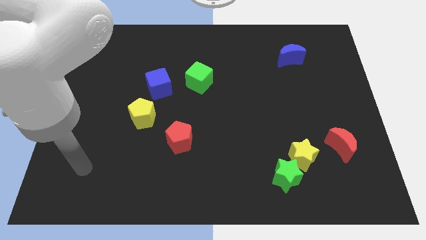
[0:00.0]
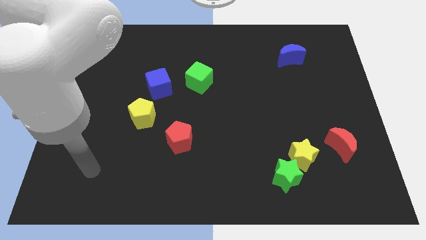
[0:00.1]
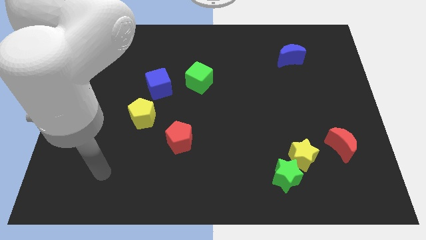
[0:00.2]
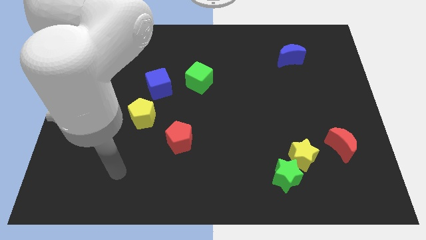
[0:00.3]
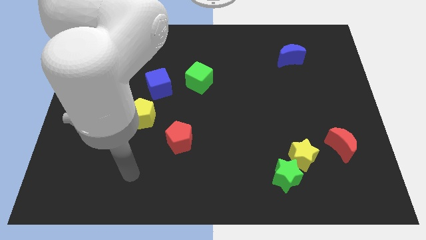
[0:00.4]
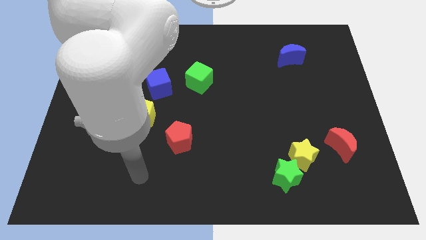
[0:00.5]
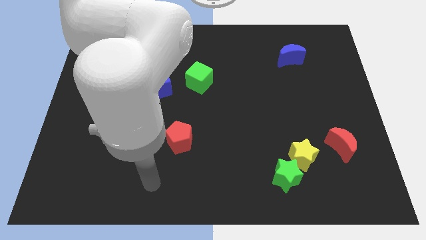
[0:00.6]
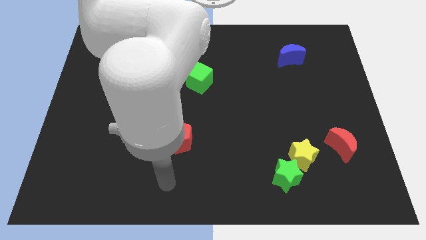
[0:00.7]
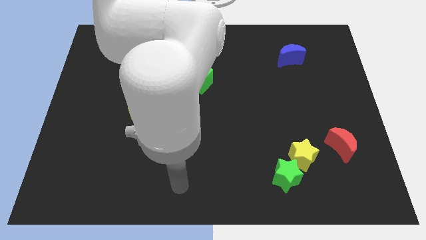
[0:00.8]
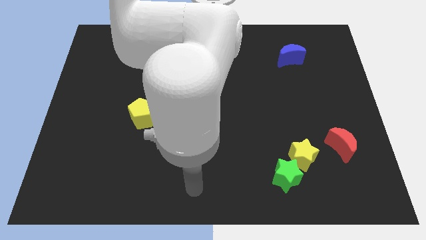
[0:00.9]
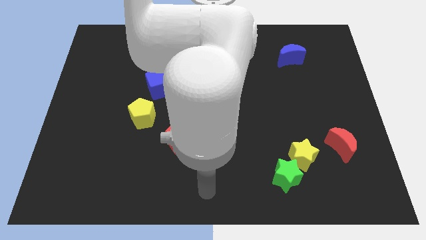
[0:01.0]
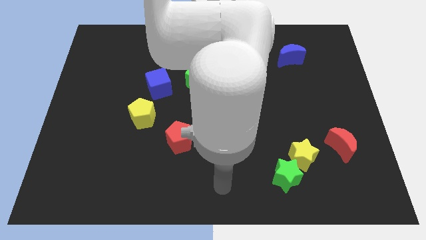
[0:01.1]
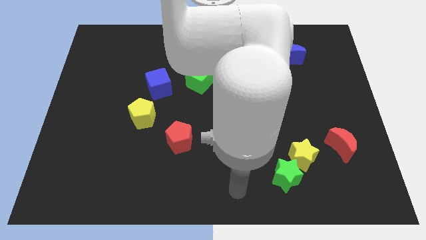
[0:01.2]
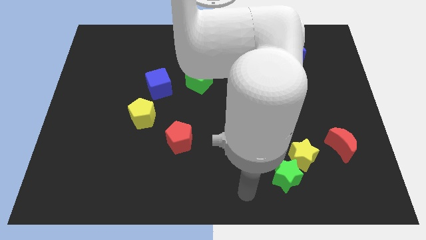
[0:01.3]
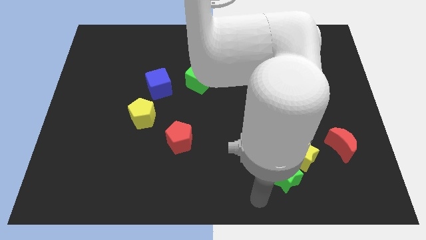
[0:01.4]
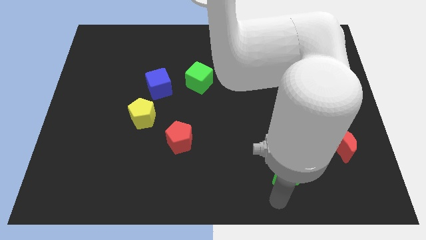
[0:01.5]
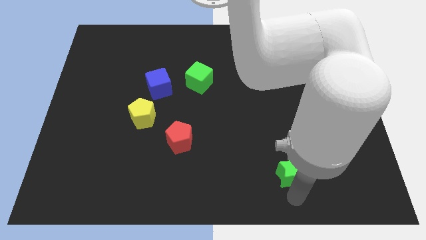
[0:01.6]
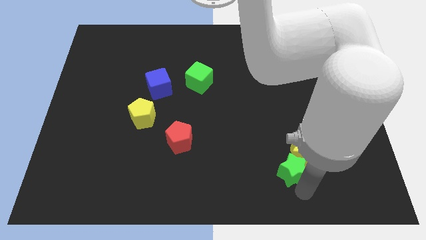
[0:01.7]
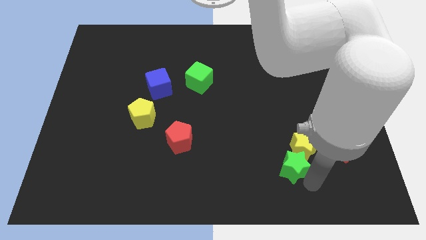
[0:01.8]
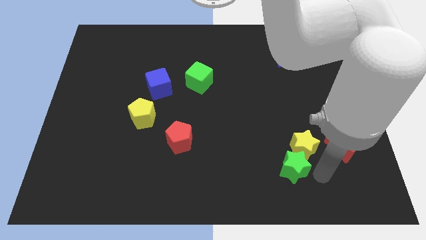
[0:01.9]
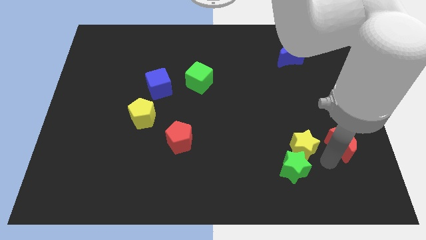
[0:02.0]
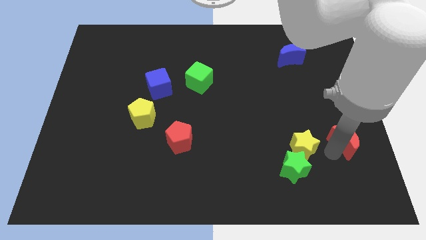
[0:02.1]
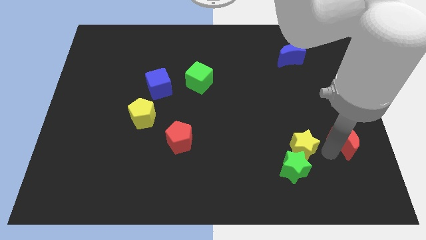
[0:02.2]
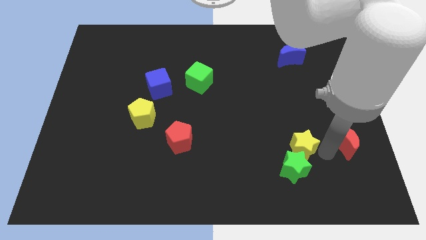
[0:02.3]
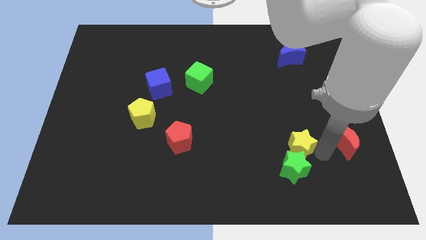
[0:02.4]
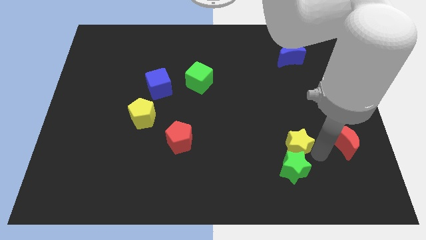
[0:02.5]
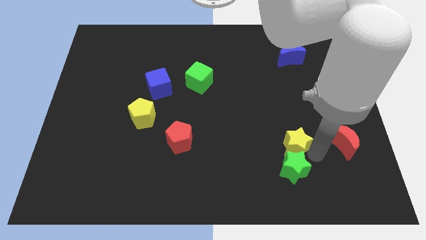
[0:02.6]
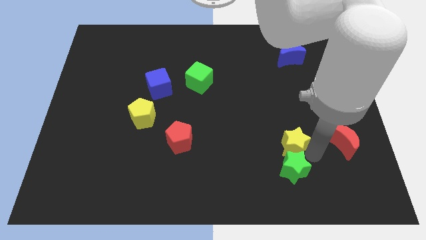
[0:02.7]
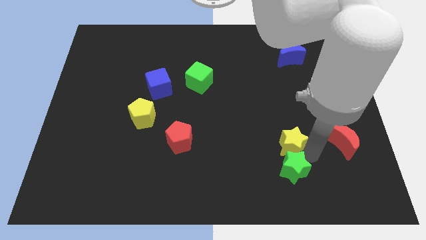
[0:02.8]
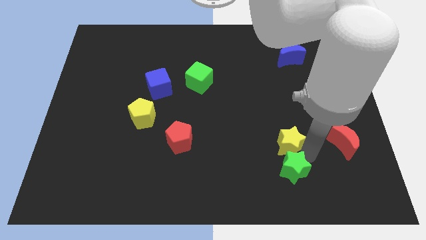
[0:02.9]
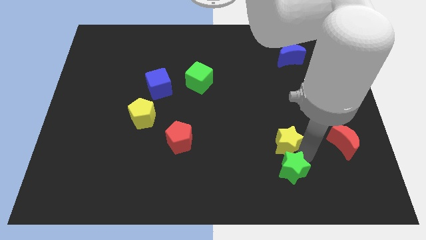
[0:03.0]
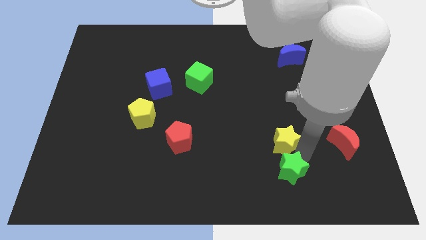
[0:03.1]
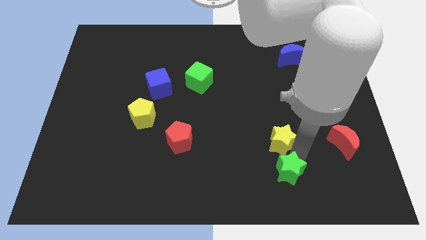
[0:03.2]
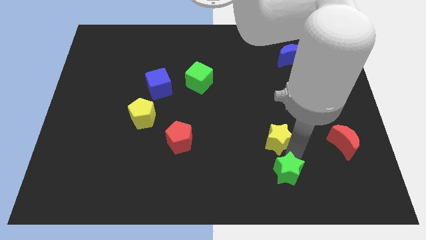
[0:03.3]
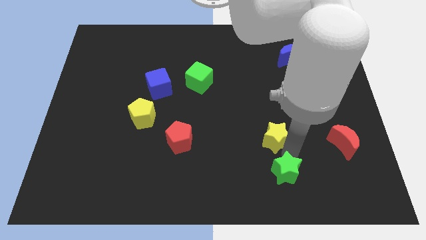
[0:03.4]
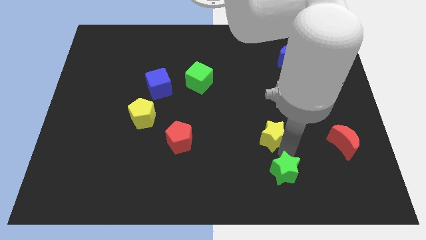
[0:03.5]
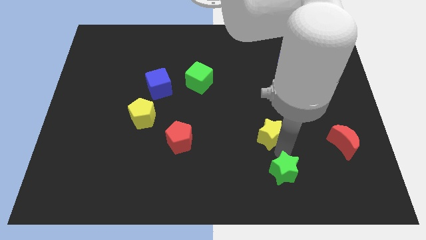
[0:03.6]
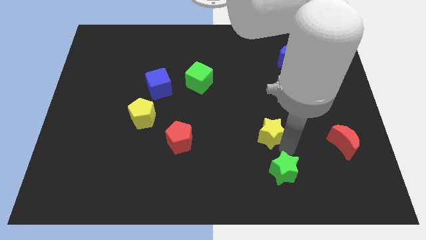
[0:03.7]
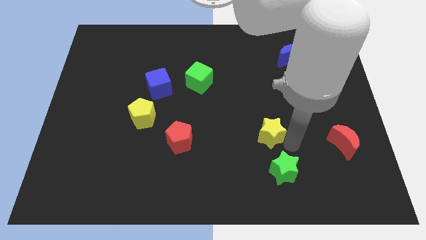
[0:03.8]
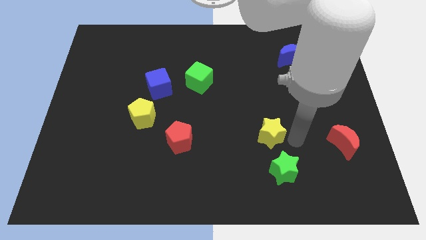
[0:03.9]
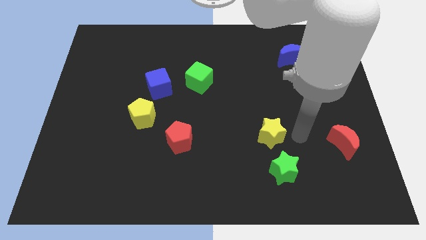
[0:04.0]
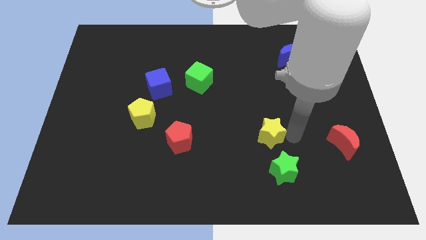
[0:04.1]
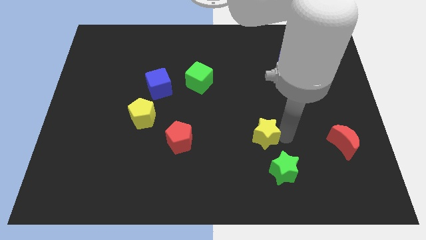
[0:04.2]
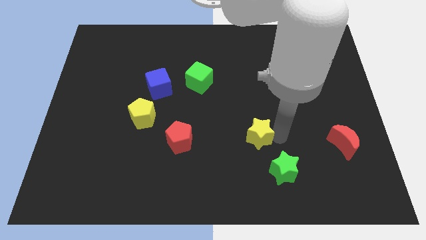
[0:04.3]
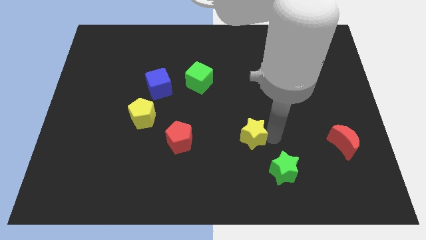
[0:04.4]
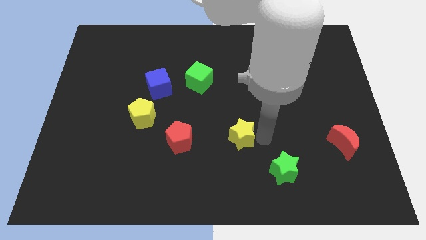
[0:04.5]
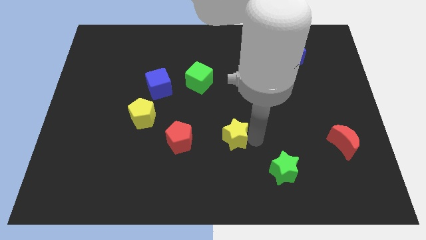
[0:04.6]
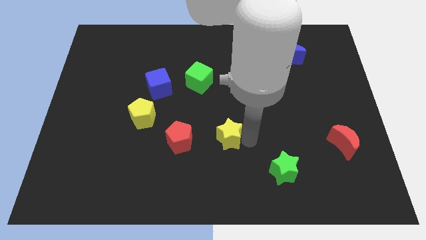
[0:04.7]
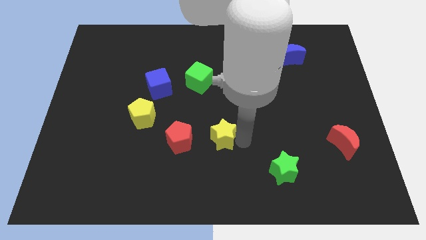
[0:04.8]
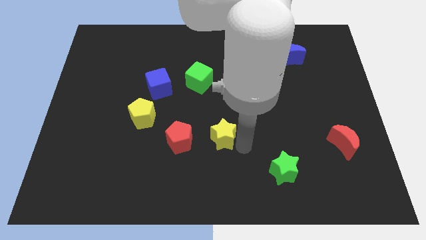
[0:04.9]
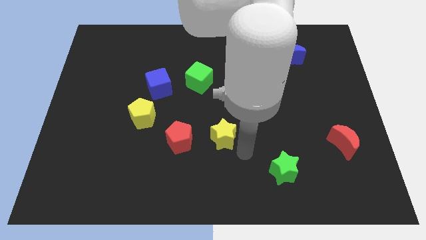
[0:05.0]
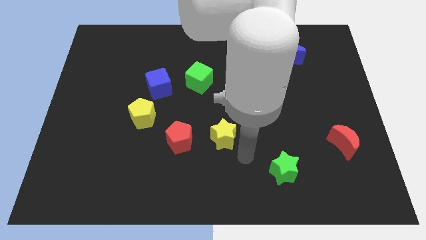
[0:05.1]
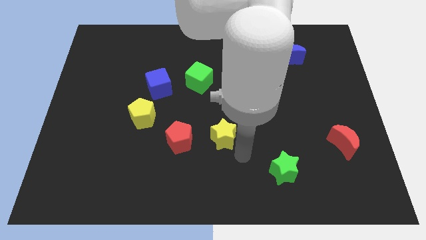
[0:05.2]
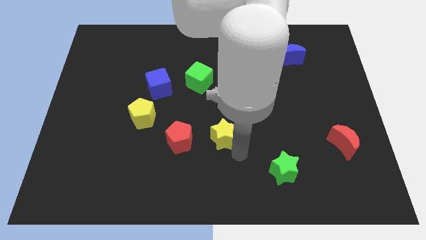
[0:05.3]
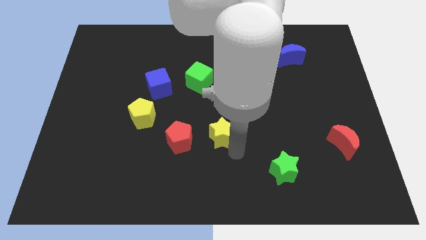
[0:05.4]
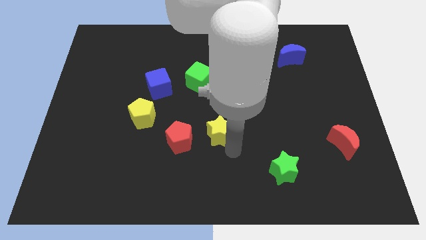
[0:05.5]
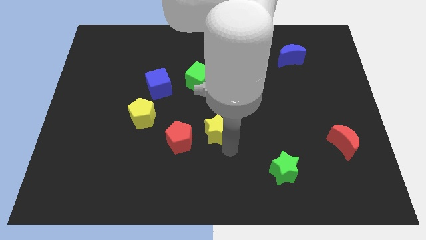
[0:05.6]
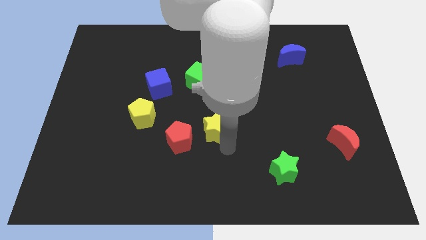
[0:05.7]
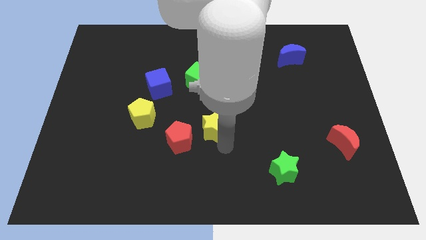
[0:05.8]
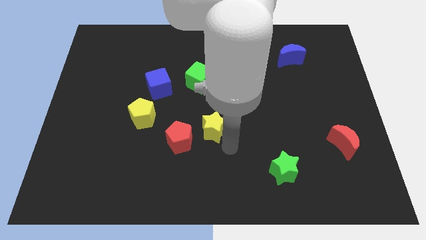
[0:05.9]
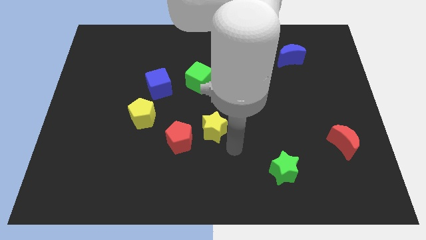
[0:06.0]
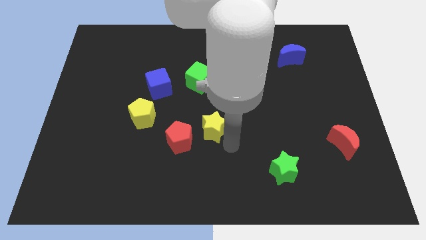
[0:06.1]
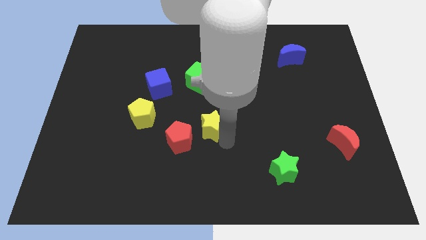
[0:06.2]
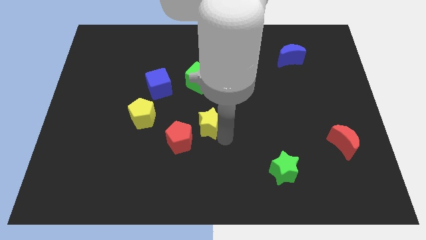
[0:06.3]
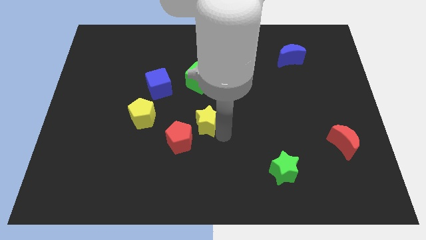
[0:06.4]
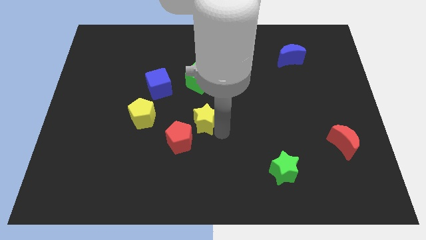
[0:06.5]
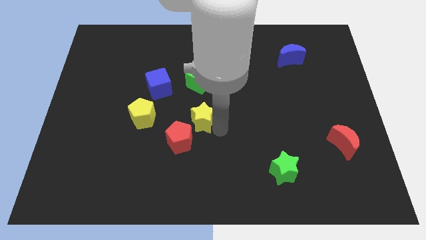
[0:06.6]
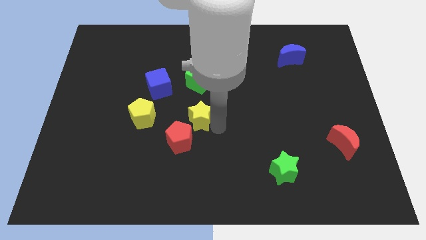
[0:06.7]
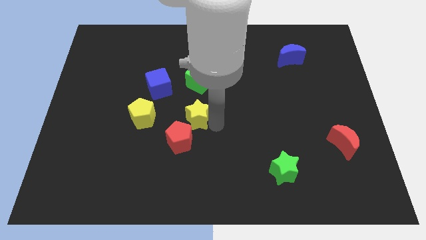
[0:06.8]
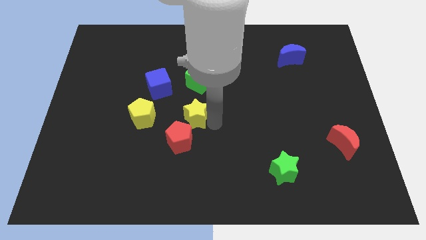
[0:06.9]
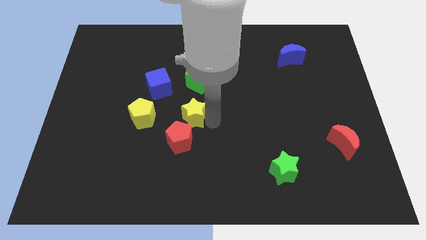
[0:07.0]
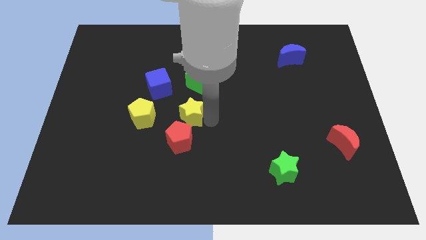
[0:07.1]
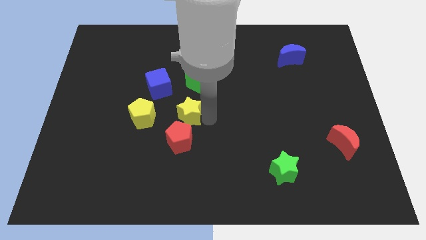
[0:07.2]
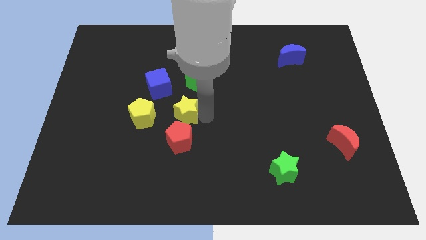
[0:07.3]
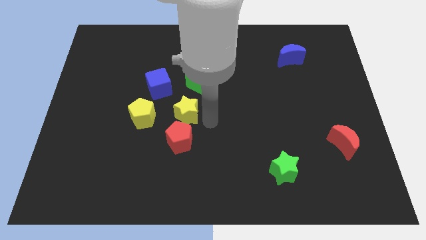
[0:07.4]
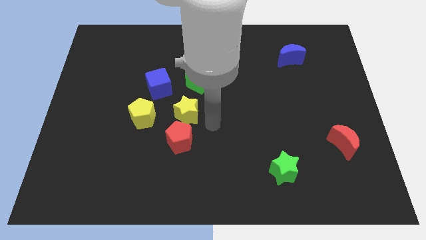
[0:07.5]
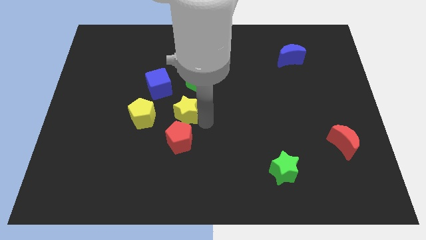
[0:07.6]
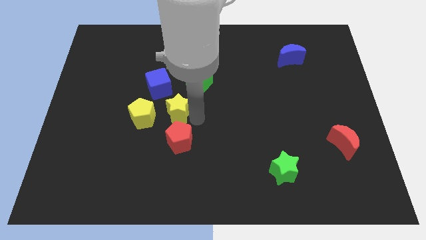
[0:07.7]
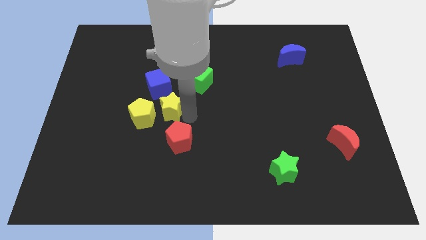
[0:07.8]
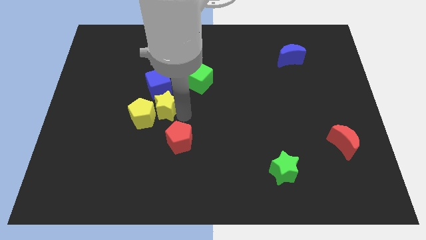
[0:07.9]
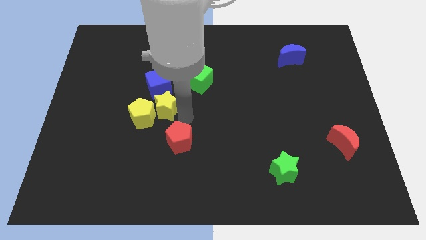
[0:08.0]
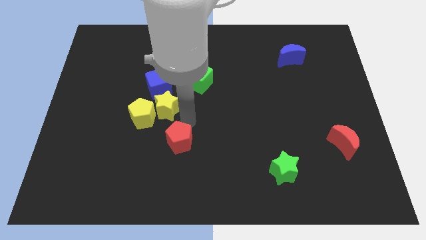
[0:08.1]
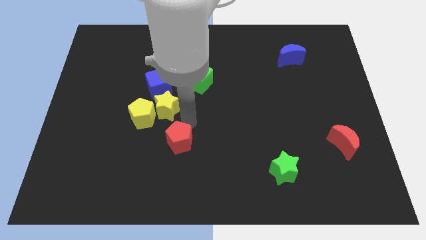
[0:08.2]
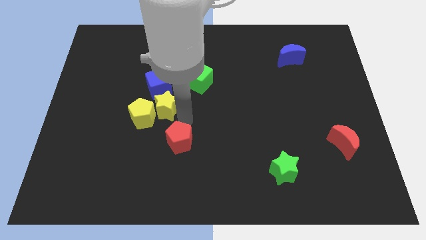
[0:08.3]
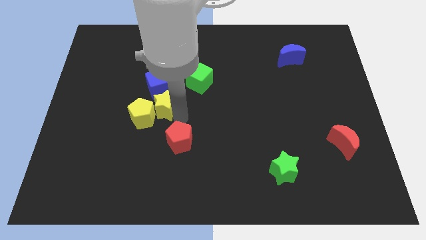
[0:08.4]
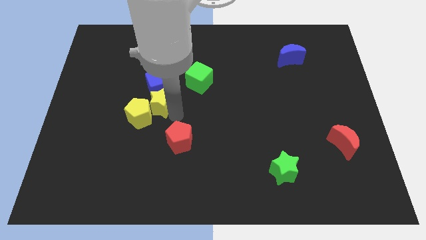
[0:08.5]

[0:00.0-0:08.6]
move the yellow star to the bottom left of the blue cube
